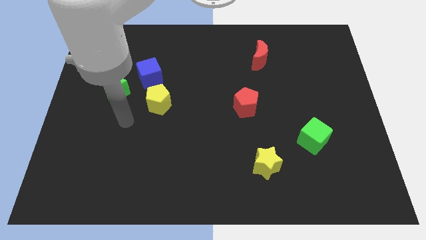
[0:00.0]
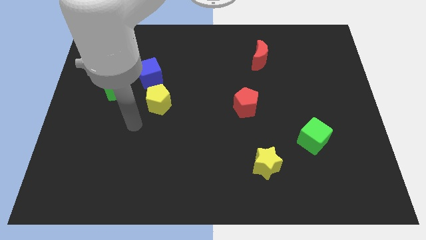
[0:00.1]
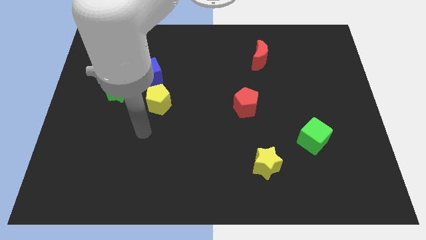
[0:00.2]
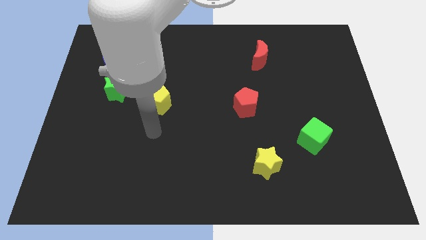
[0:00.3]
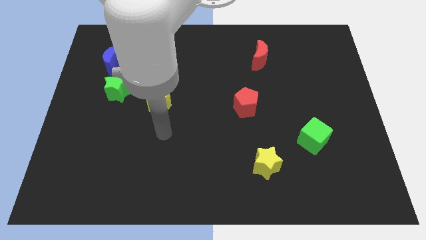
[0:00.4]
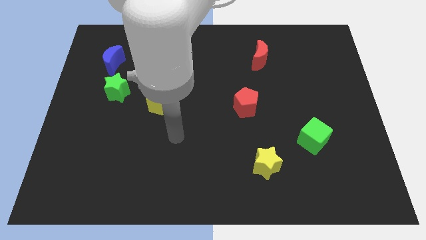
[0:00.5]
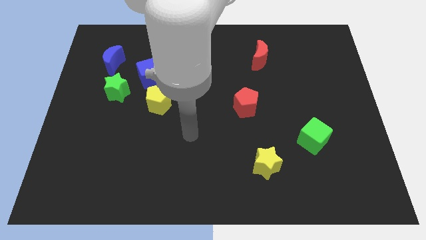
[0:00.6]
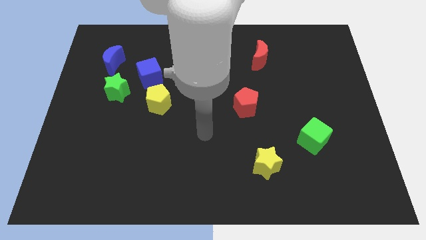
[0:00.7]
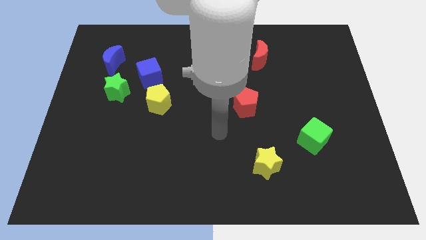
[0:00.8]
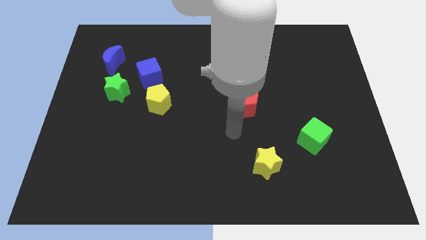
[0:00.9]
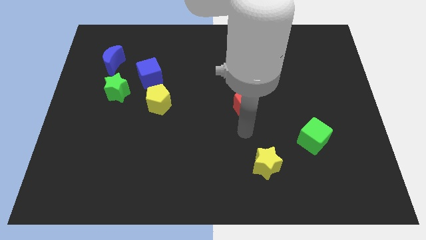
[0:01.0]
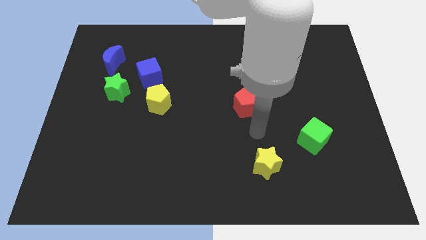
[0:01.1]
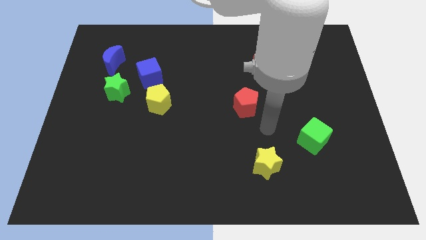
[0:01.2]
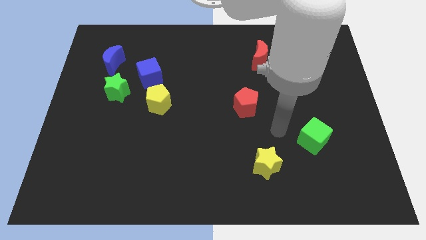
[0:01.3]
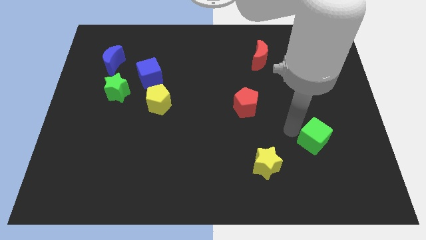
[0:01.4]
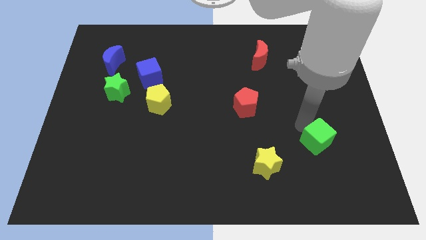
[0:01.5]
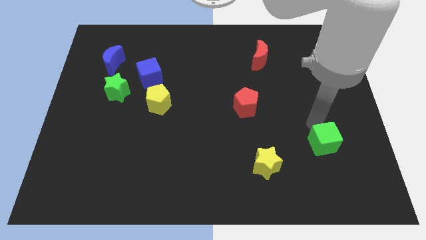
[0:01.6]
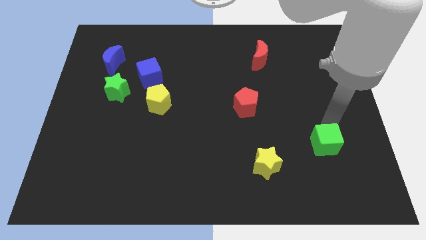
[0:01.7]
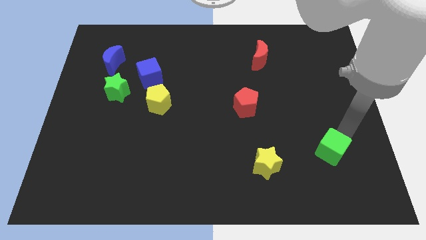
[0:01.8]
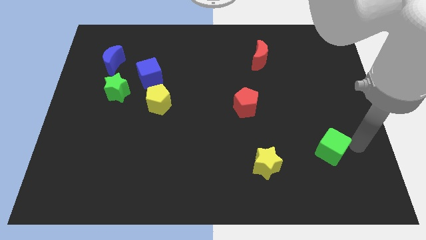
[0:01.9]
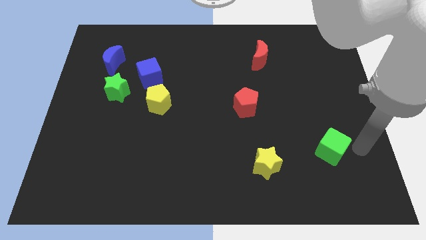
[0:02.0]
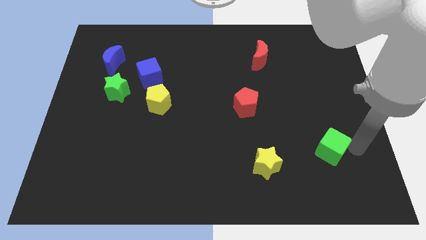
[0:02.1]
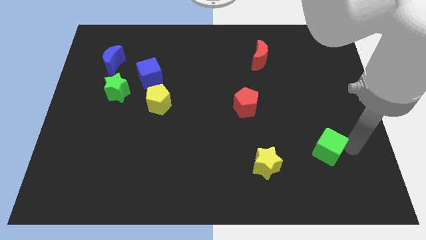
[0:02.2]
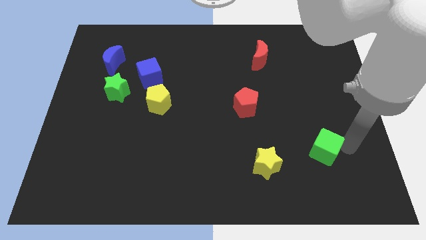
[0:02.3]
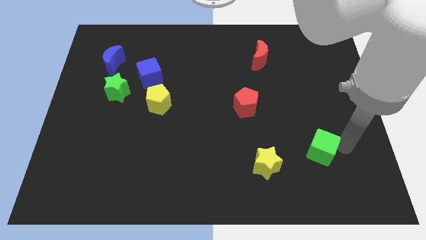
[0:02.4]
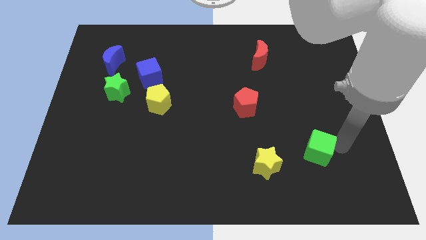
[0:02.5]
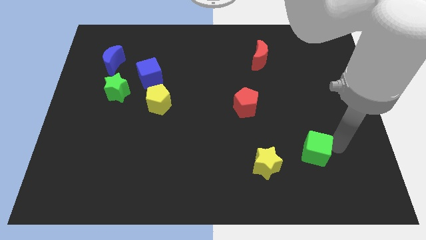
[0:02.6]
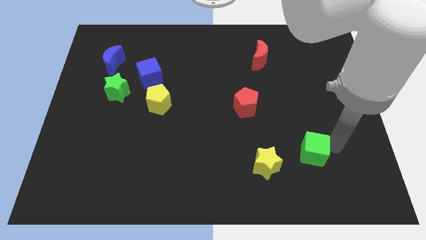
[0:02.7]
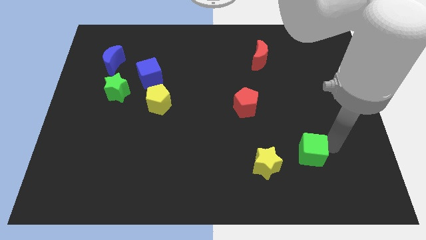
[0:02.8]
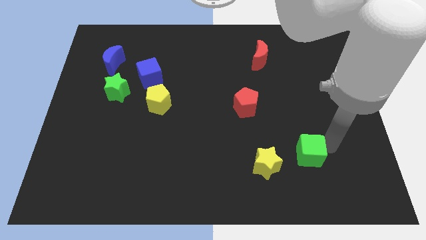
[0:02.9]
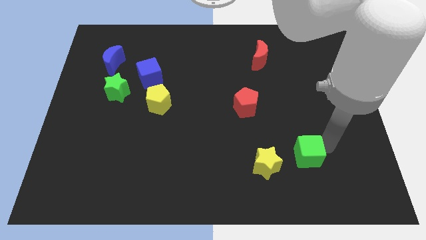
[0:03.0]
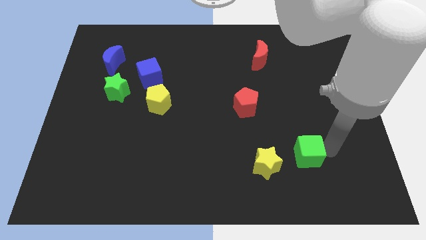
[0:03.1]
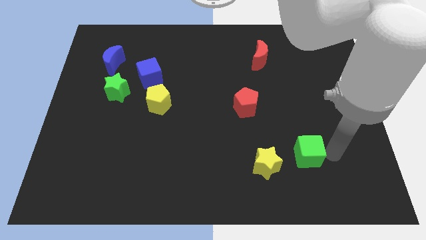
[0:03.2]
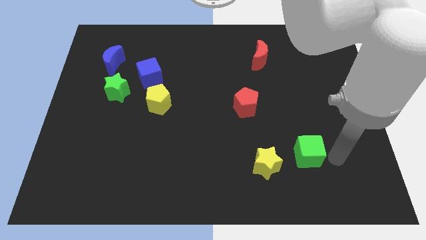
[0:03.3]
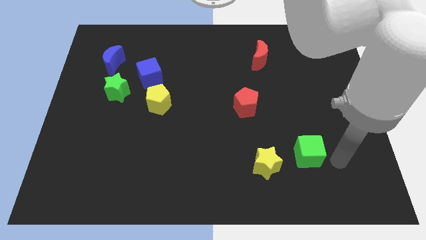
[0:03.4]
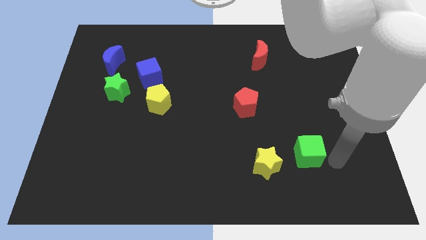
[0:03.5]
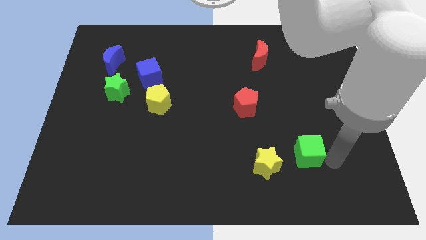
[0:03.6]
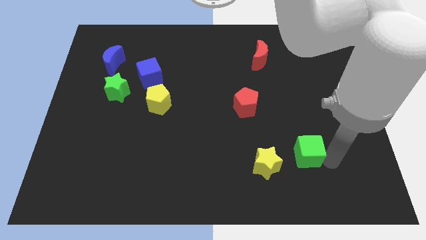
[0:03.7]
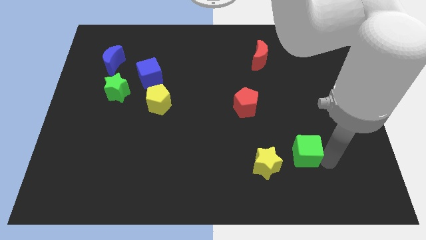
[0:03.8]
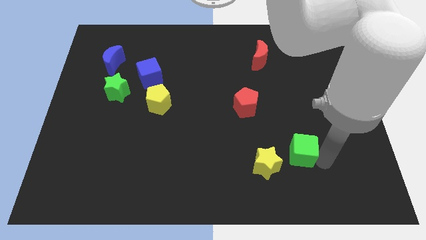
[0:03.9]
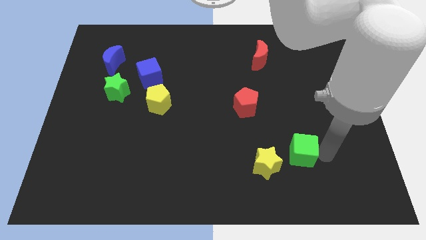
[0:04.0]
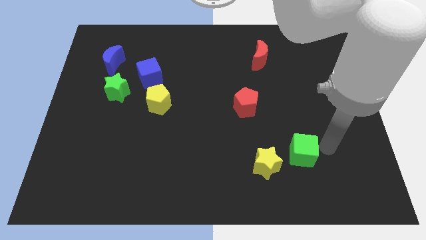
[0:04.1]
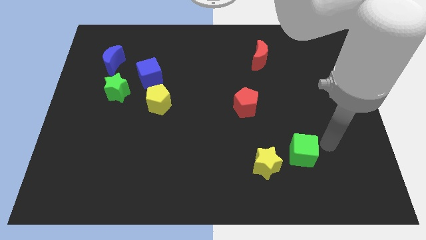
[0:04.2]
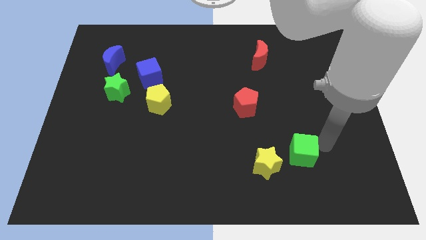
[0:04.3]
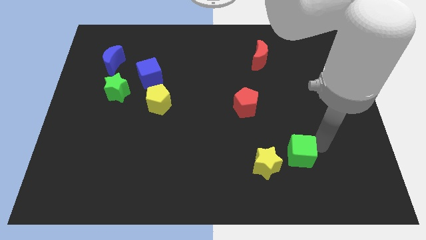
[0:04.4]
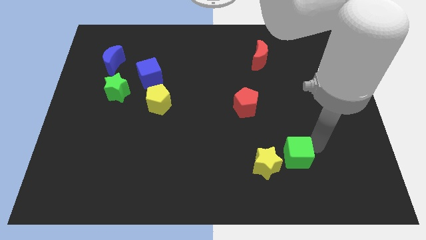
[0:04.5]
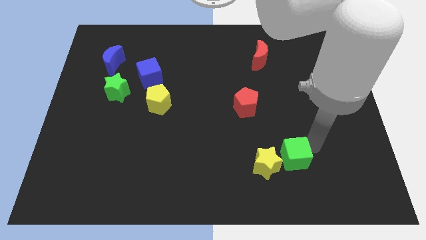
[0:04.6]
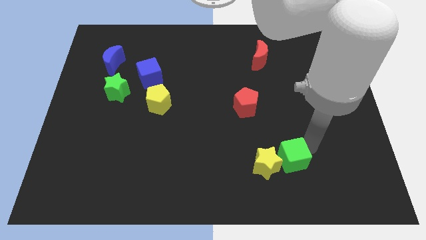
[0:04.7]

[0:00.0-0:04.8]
put the green cube close to the yellow star

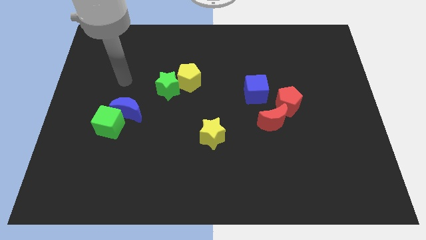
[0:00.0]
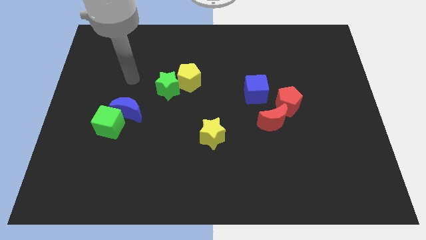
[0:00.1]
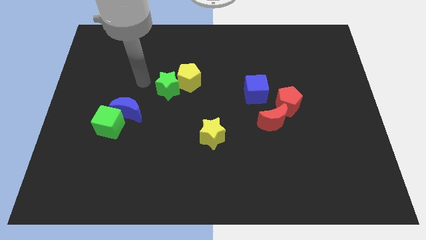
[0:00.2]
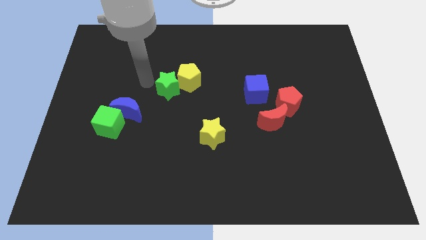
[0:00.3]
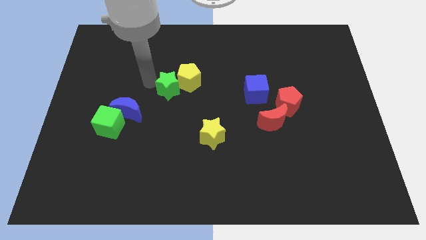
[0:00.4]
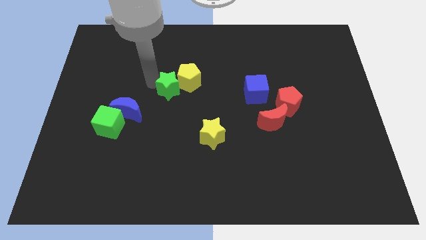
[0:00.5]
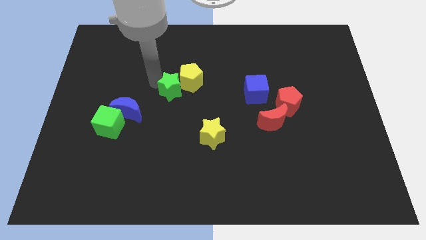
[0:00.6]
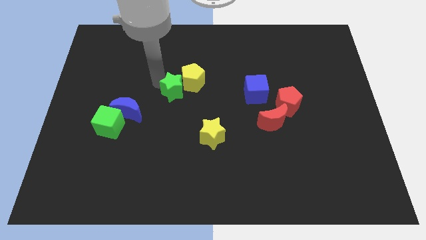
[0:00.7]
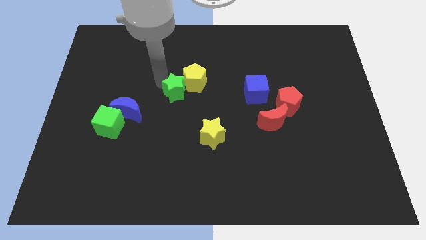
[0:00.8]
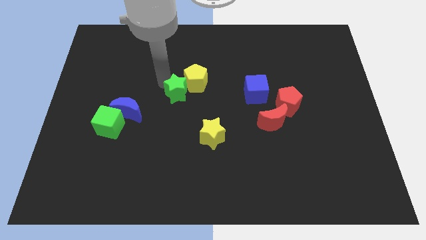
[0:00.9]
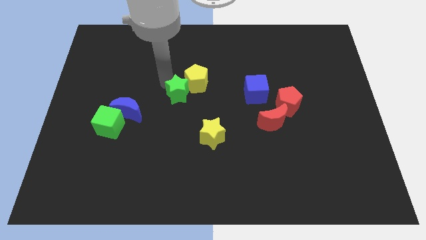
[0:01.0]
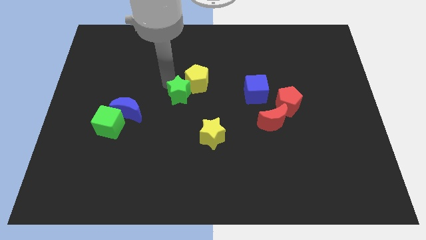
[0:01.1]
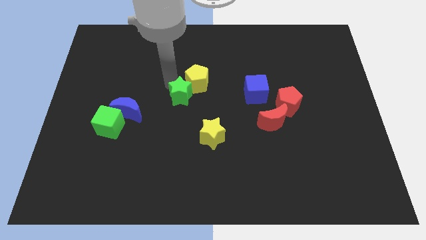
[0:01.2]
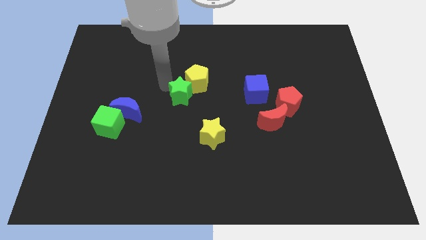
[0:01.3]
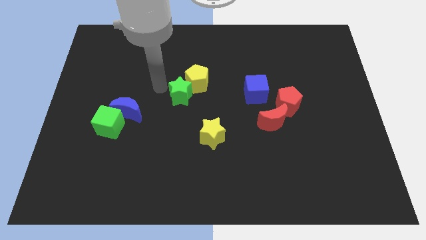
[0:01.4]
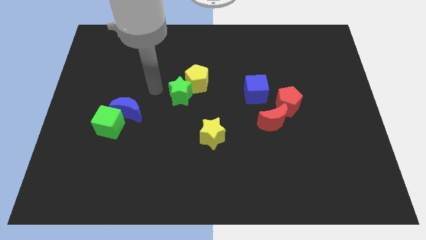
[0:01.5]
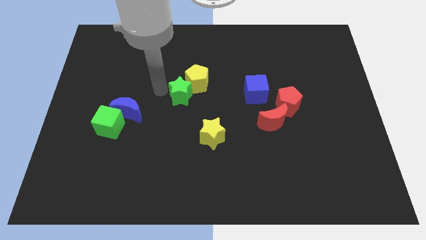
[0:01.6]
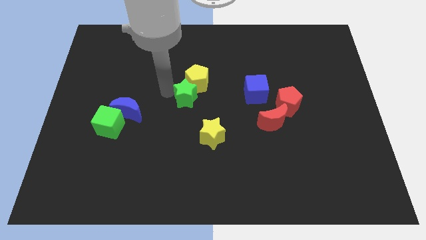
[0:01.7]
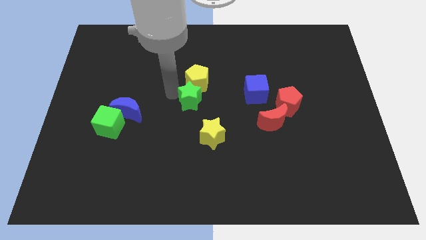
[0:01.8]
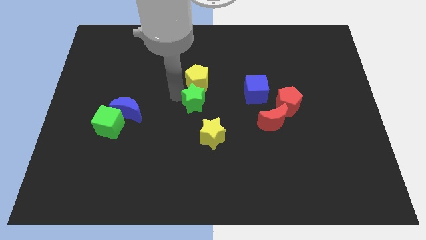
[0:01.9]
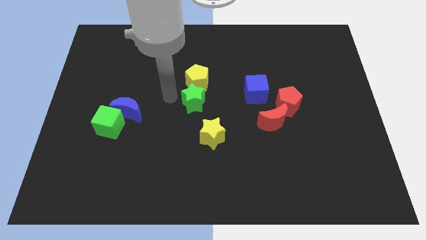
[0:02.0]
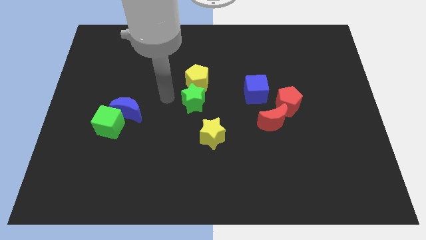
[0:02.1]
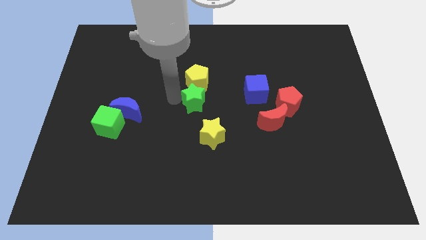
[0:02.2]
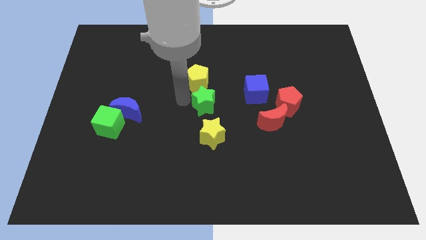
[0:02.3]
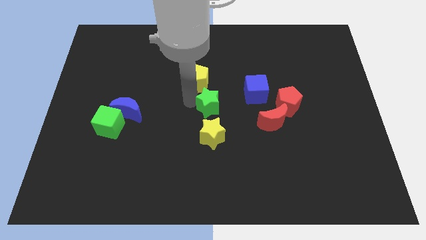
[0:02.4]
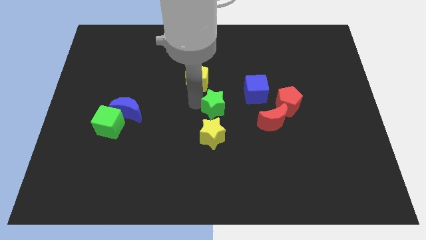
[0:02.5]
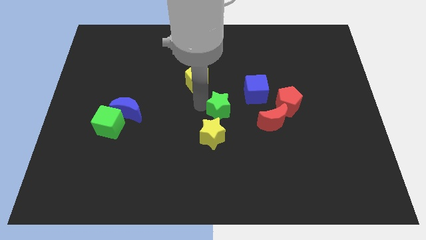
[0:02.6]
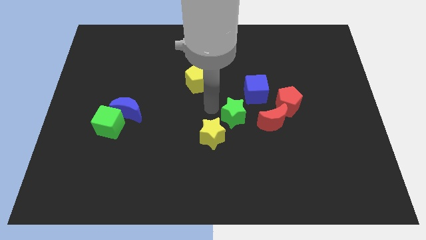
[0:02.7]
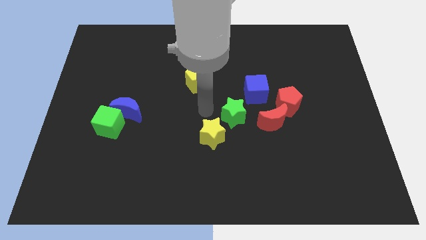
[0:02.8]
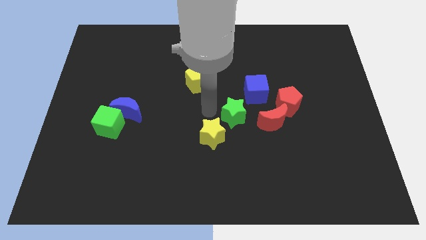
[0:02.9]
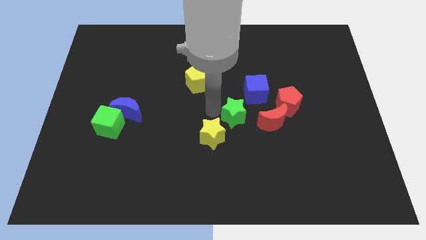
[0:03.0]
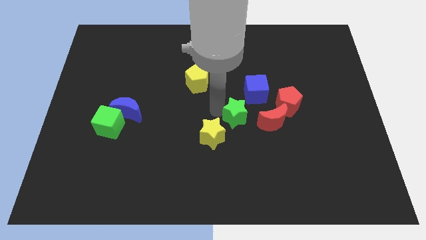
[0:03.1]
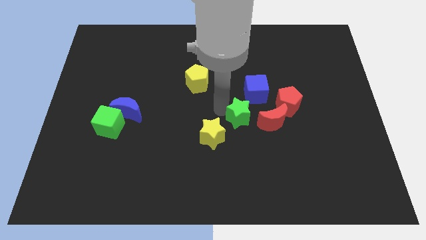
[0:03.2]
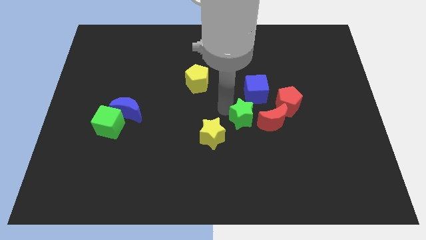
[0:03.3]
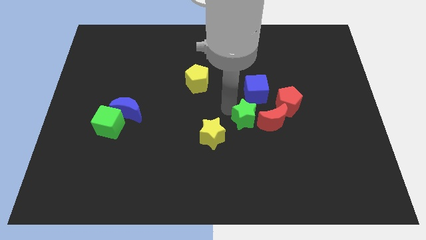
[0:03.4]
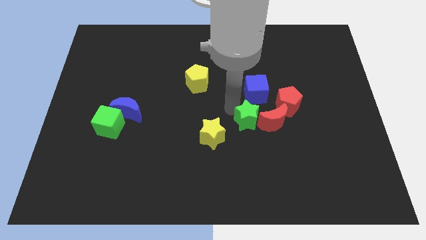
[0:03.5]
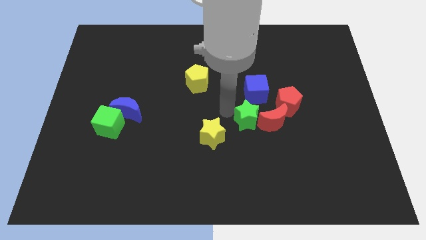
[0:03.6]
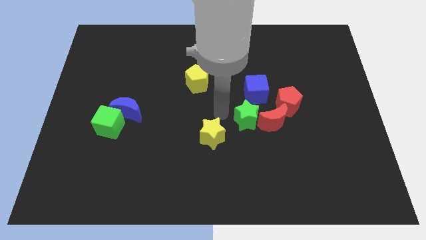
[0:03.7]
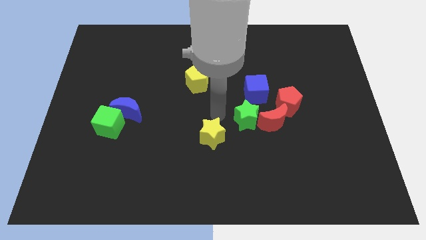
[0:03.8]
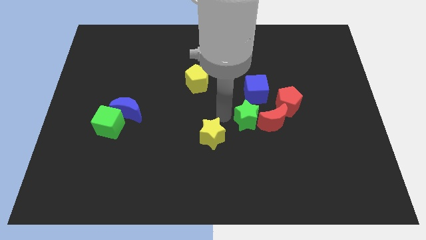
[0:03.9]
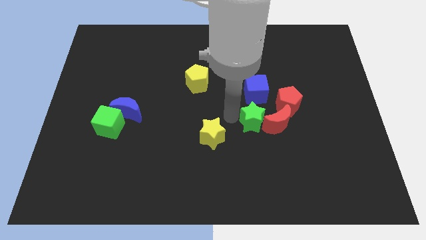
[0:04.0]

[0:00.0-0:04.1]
put the green star close to the red moon
